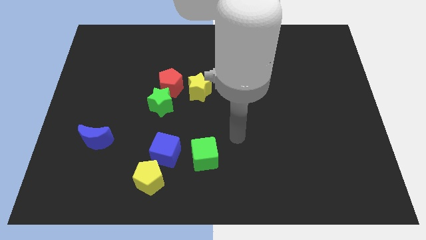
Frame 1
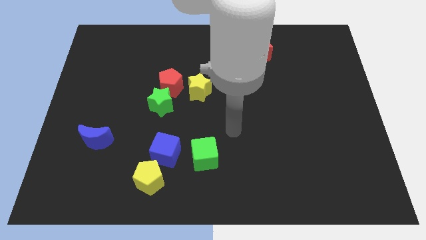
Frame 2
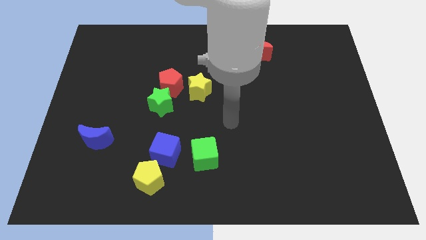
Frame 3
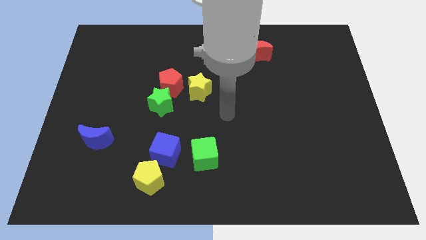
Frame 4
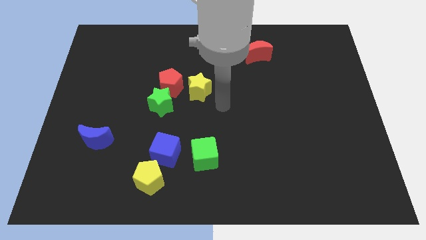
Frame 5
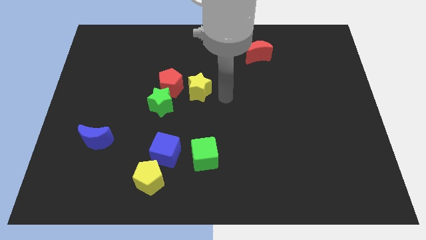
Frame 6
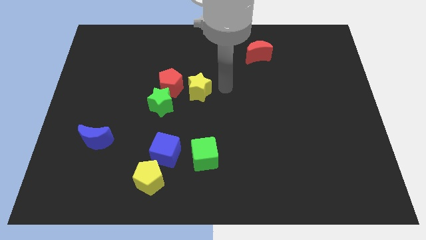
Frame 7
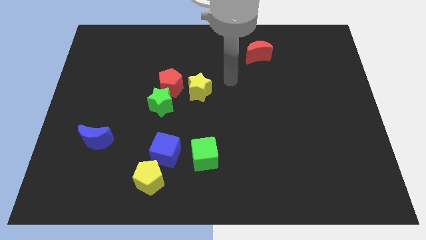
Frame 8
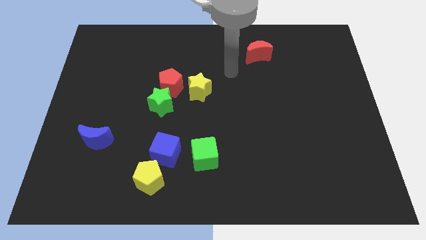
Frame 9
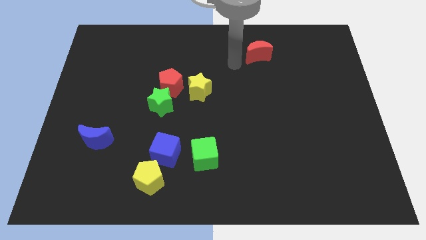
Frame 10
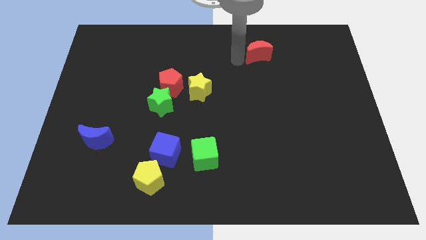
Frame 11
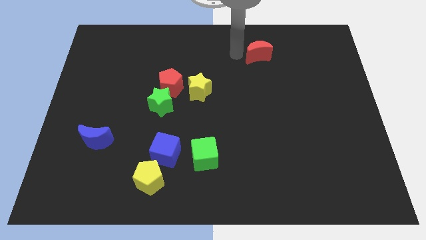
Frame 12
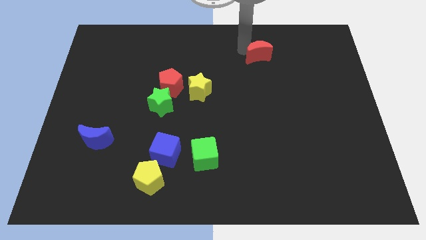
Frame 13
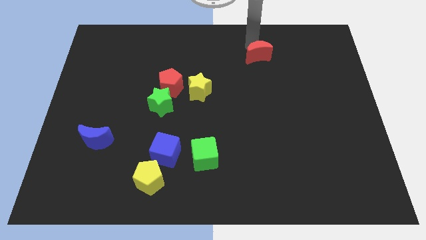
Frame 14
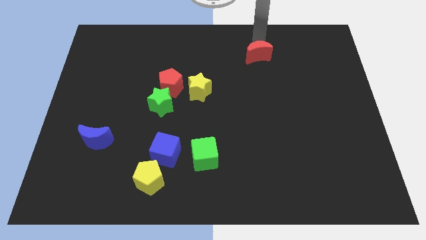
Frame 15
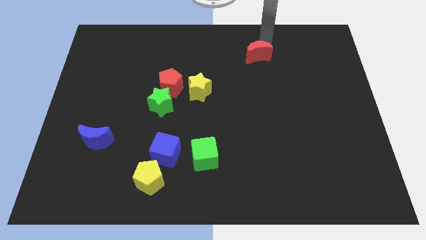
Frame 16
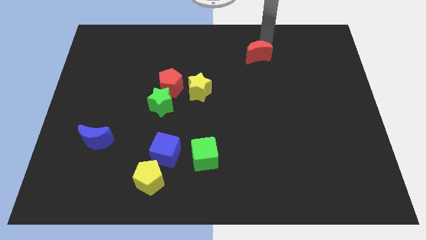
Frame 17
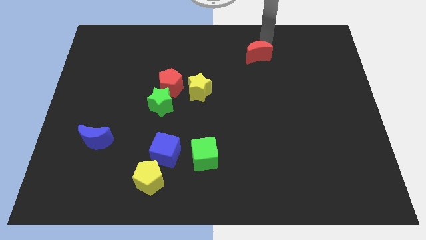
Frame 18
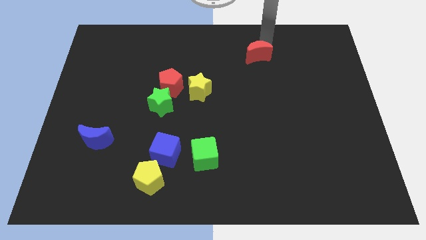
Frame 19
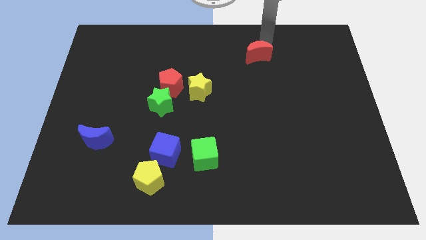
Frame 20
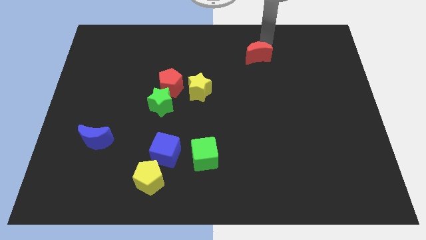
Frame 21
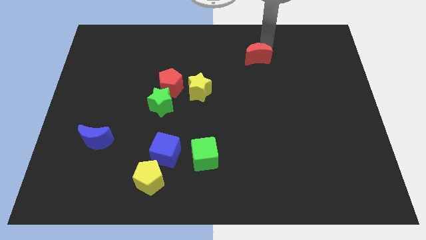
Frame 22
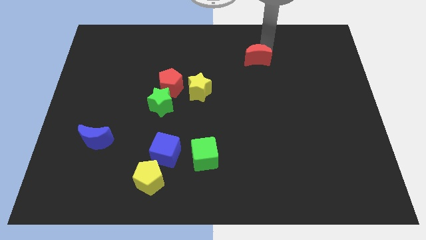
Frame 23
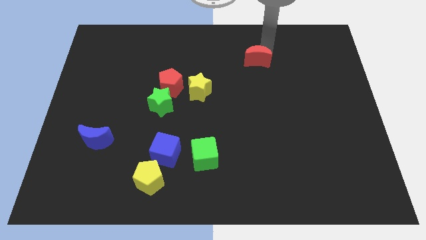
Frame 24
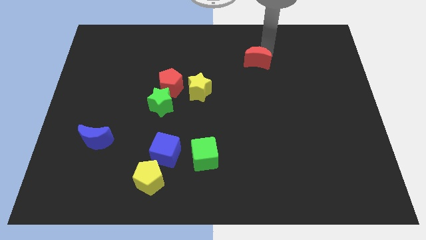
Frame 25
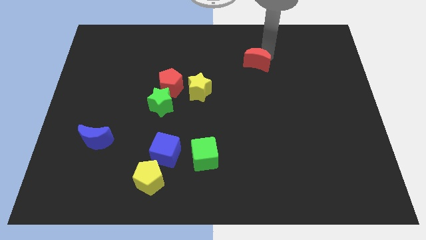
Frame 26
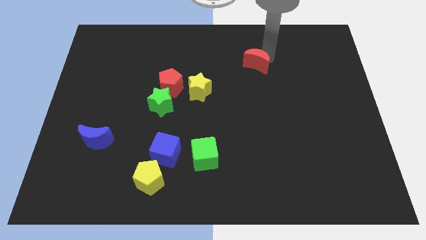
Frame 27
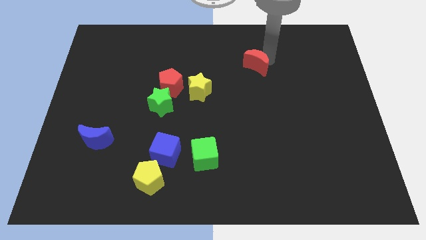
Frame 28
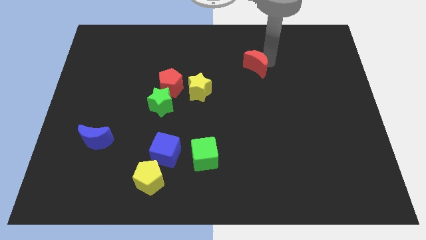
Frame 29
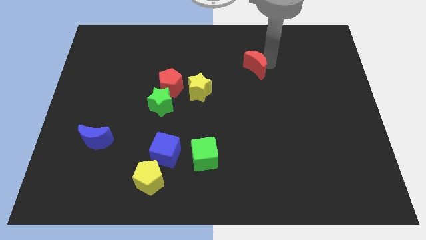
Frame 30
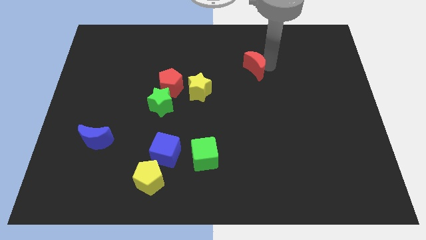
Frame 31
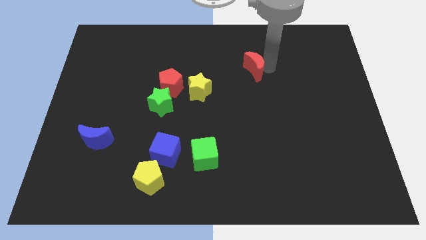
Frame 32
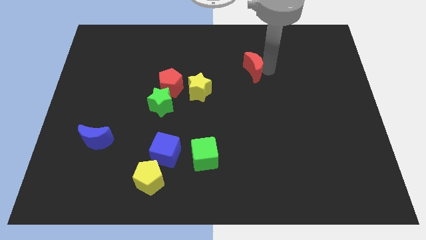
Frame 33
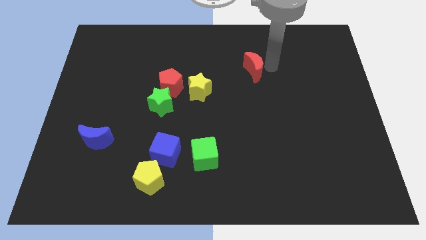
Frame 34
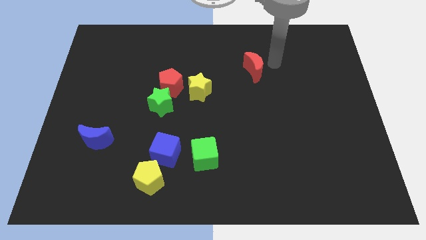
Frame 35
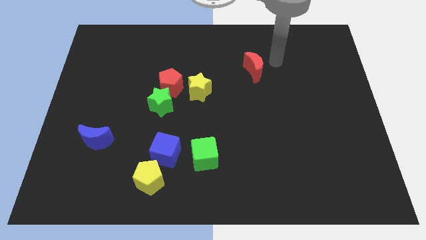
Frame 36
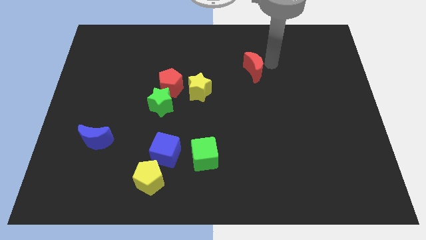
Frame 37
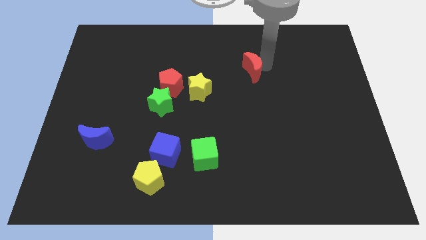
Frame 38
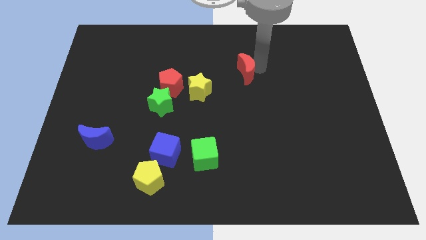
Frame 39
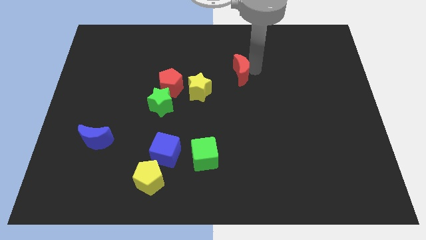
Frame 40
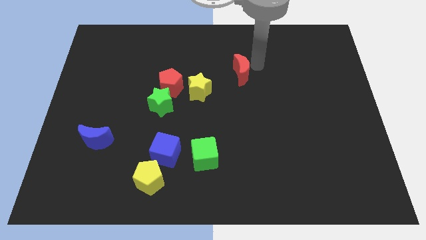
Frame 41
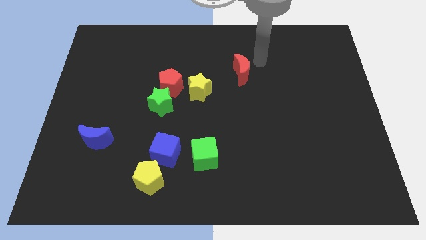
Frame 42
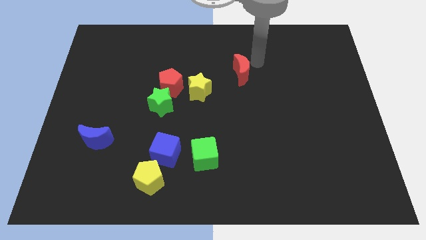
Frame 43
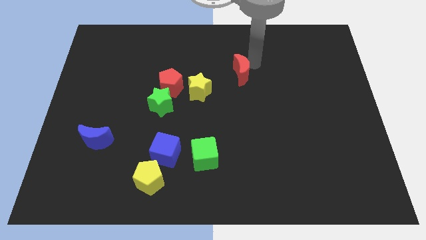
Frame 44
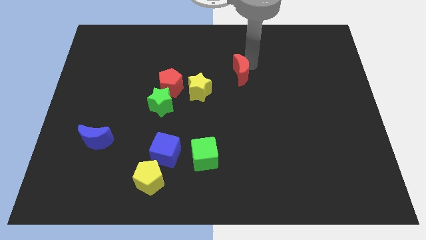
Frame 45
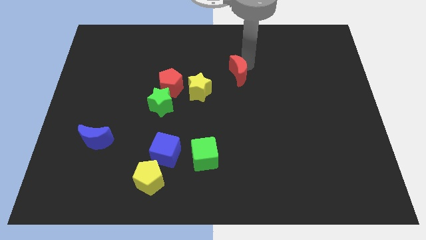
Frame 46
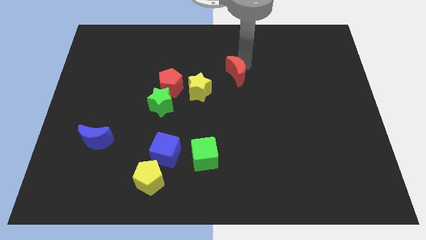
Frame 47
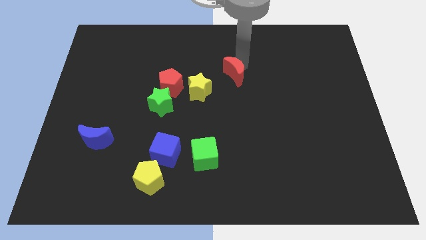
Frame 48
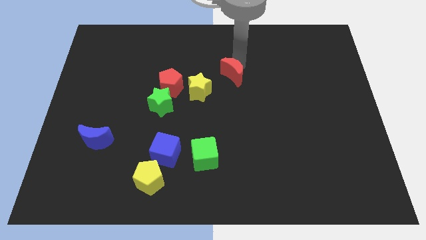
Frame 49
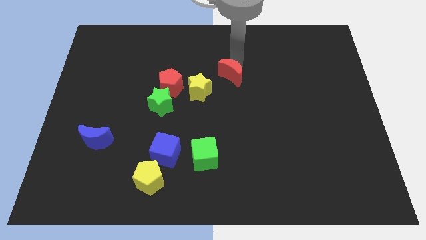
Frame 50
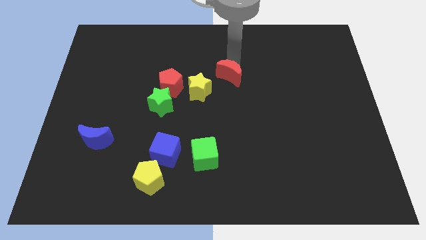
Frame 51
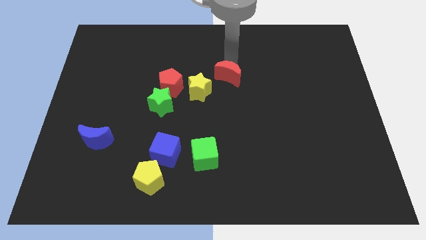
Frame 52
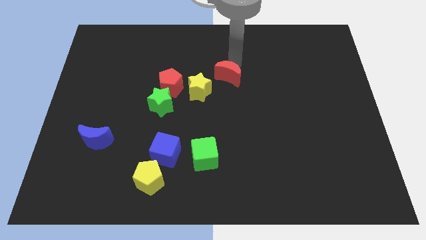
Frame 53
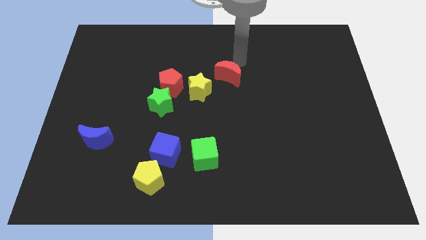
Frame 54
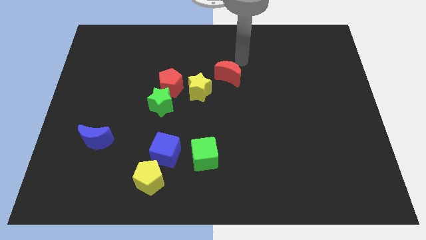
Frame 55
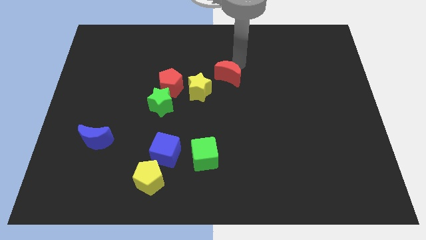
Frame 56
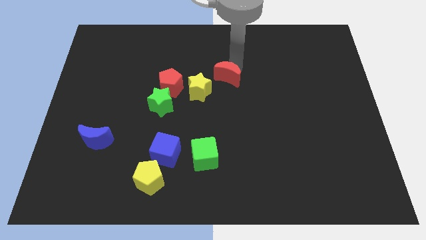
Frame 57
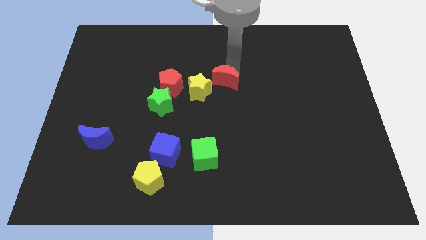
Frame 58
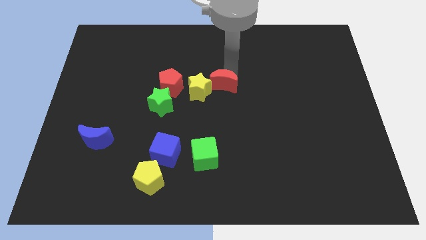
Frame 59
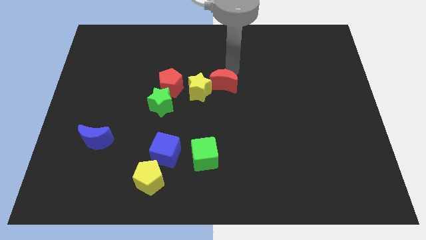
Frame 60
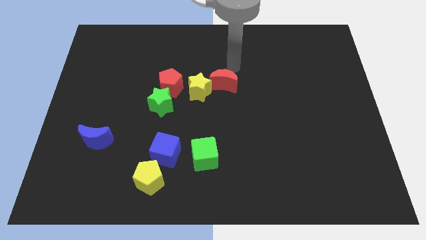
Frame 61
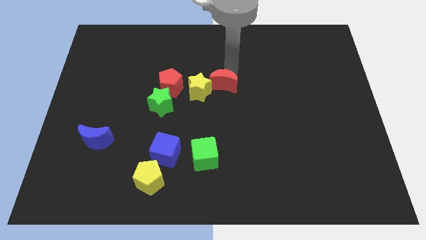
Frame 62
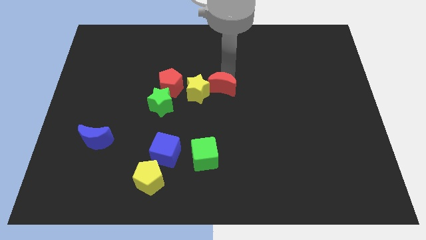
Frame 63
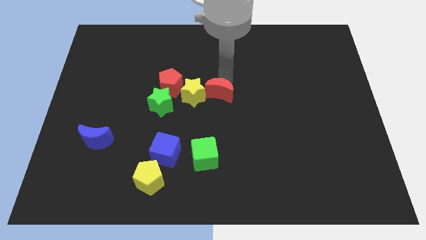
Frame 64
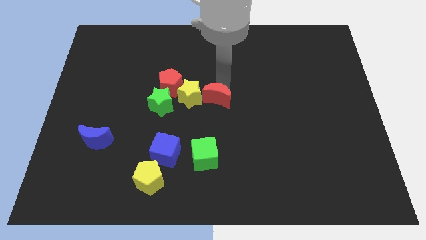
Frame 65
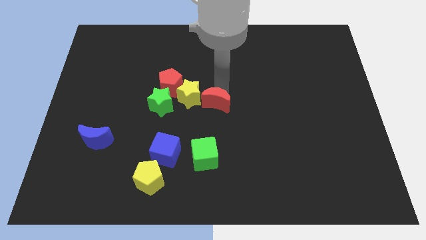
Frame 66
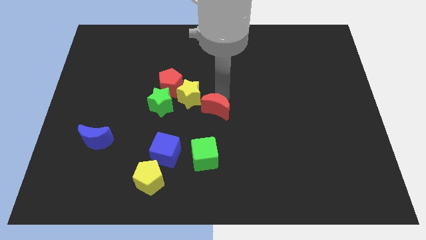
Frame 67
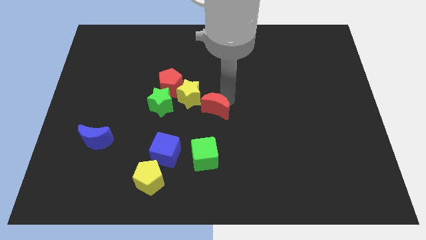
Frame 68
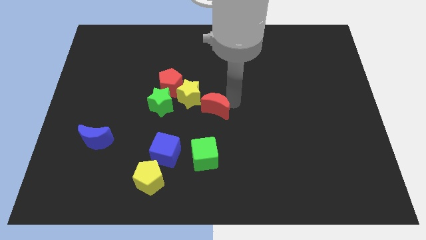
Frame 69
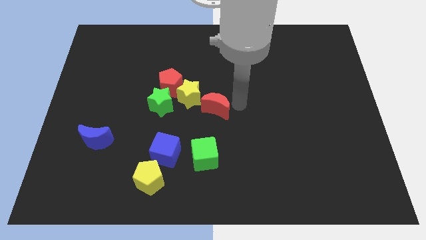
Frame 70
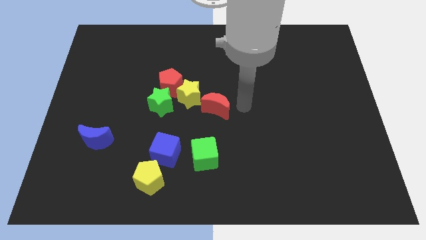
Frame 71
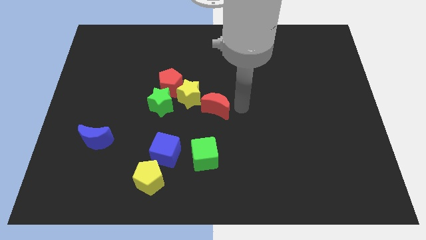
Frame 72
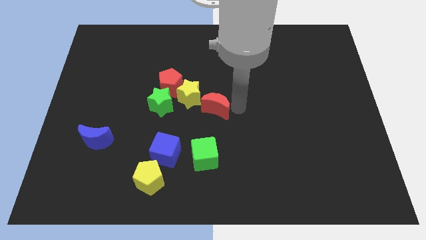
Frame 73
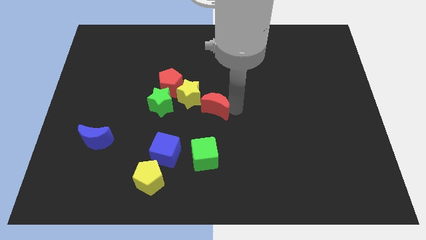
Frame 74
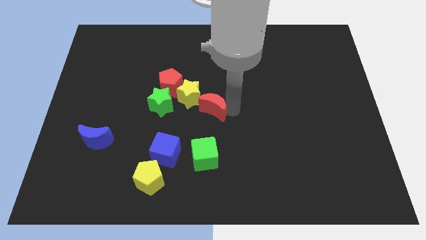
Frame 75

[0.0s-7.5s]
move the red moon diagonally downwards and to the left

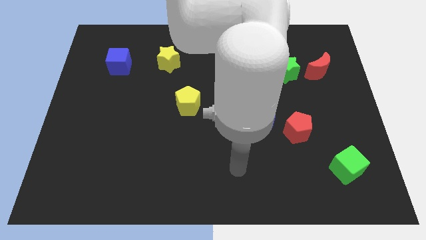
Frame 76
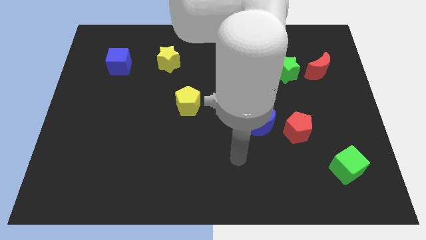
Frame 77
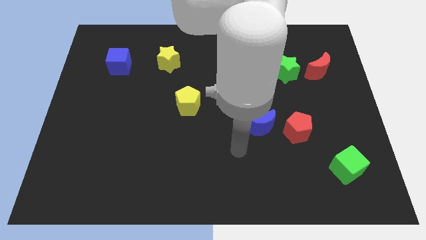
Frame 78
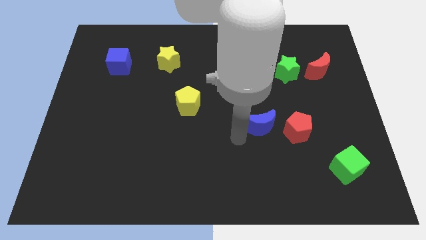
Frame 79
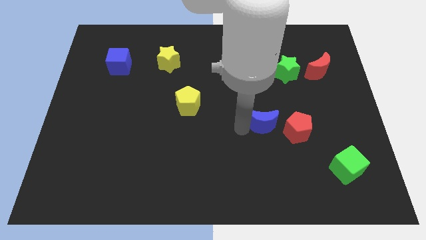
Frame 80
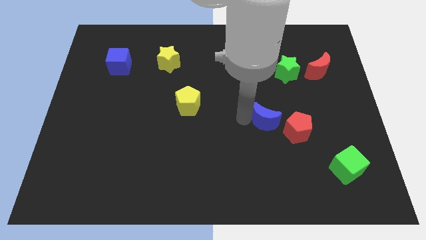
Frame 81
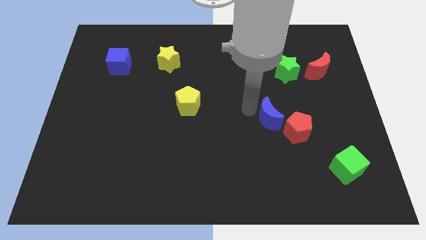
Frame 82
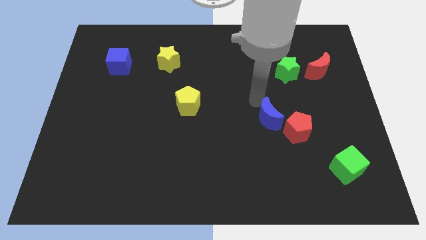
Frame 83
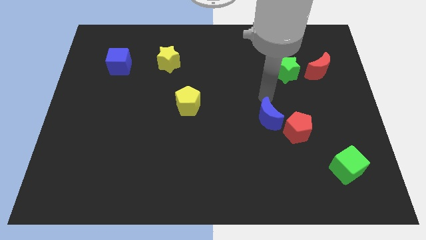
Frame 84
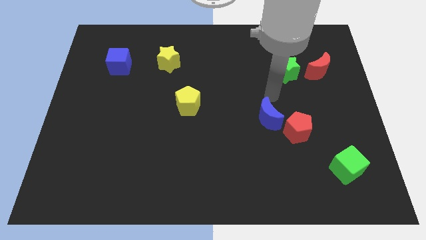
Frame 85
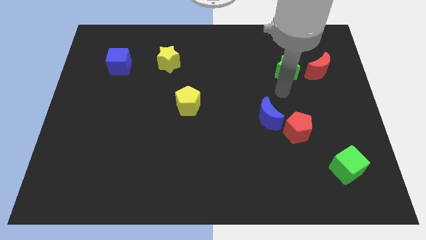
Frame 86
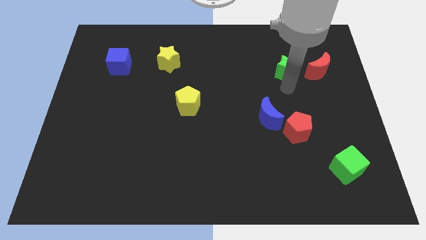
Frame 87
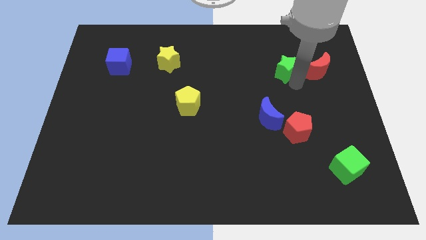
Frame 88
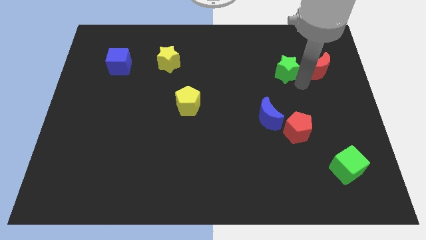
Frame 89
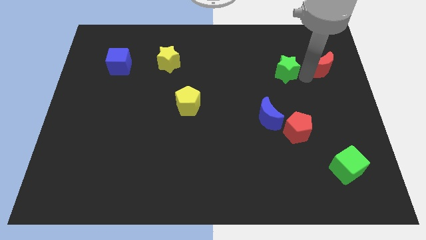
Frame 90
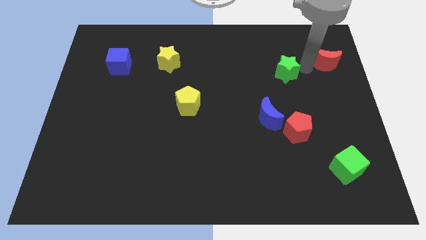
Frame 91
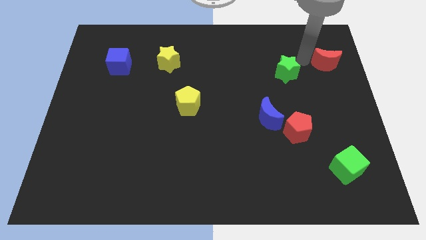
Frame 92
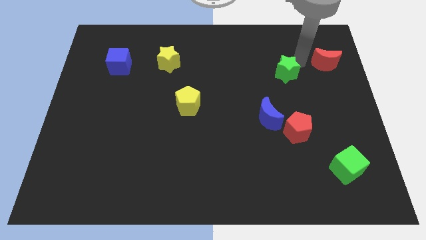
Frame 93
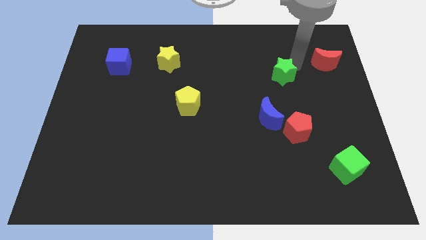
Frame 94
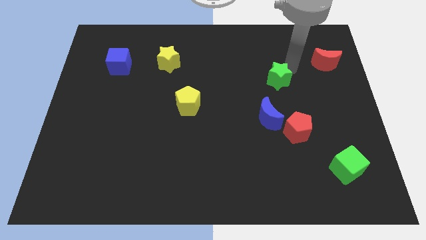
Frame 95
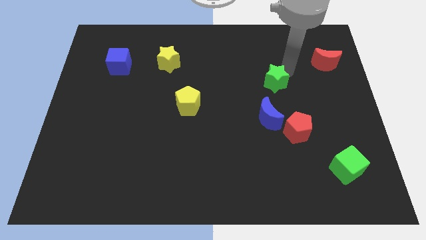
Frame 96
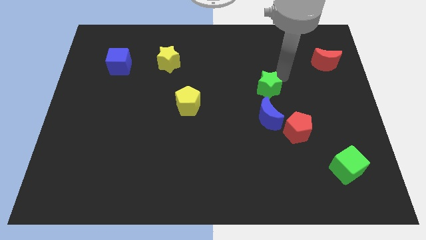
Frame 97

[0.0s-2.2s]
move the green star a little down and to the left
